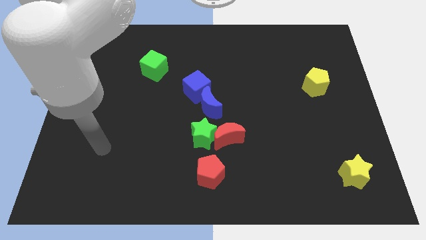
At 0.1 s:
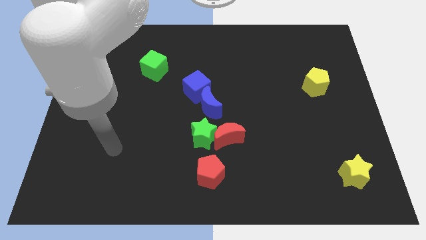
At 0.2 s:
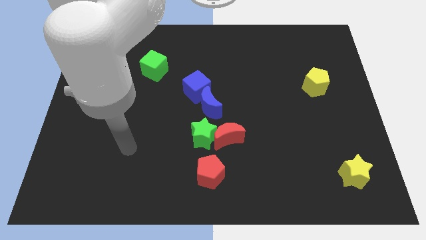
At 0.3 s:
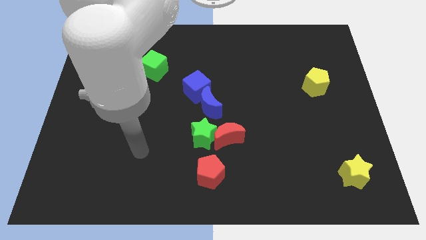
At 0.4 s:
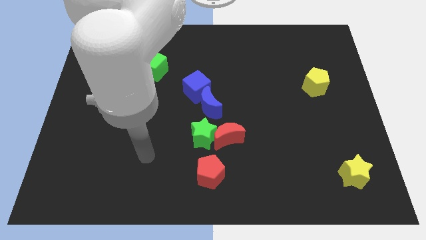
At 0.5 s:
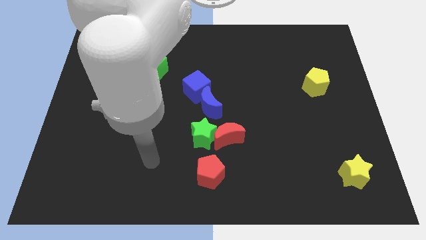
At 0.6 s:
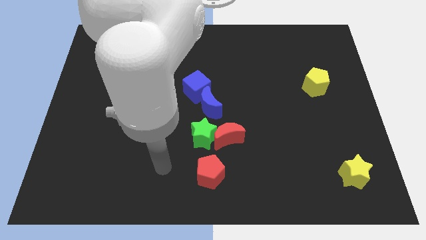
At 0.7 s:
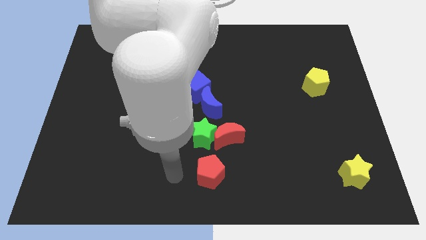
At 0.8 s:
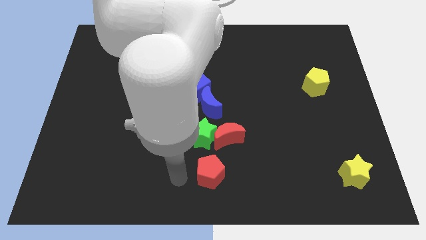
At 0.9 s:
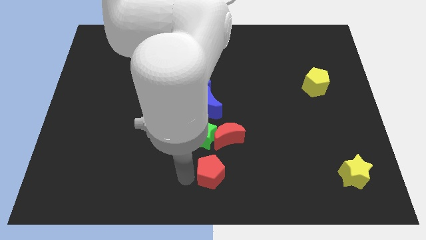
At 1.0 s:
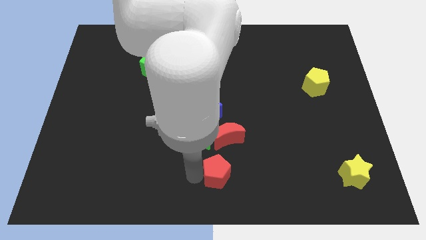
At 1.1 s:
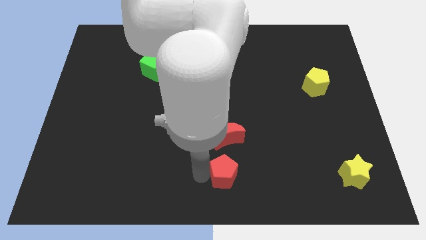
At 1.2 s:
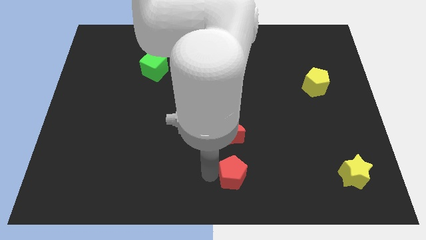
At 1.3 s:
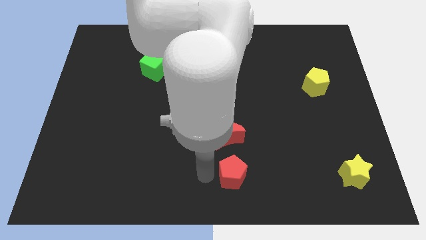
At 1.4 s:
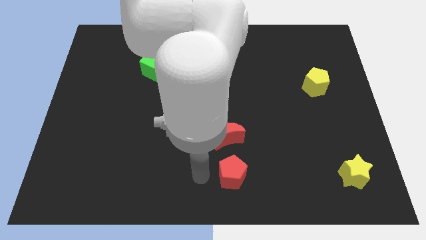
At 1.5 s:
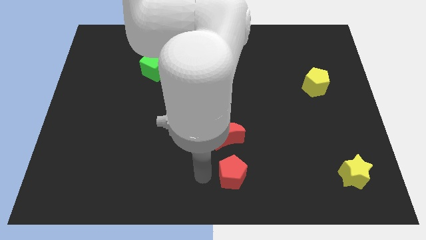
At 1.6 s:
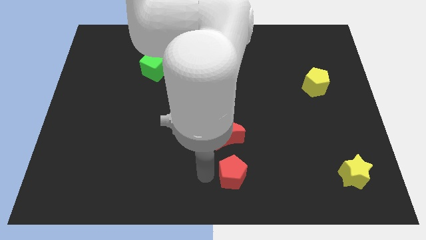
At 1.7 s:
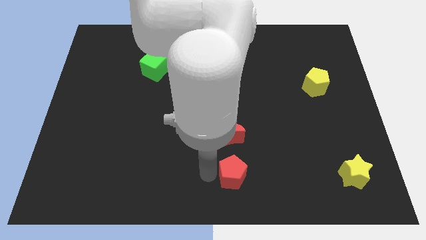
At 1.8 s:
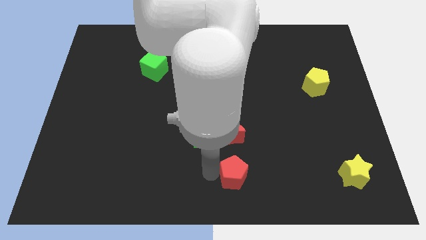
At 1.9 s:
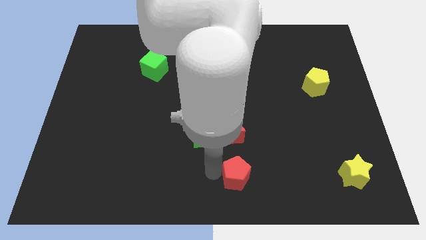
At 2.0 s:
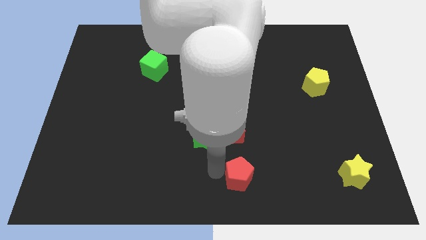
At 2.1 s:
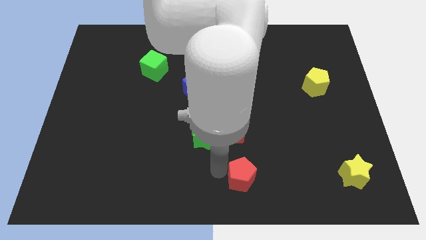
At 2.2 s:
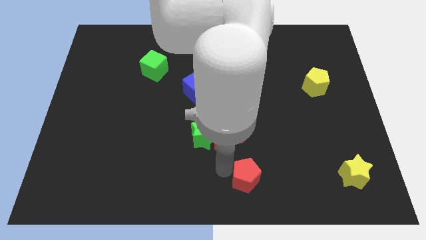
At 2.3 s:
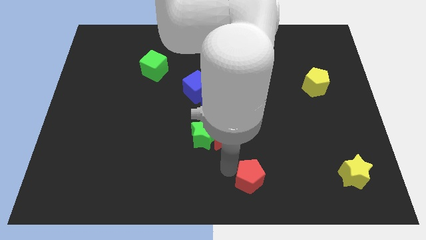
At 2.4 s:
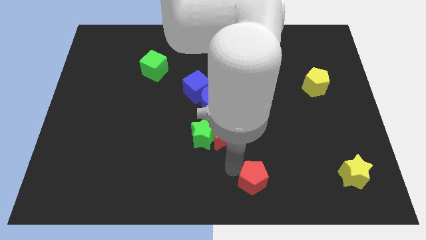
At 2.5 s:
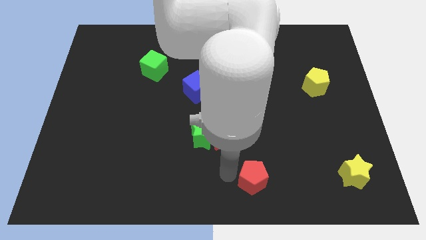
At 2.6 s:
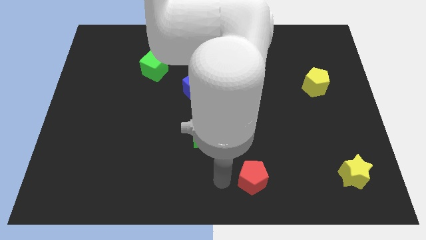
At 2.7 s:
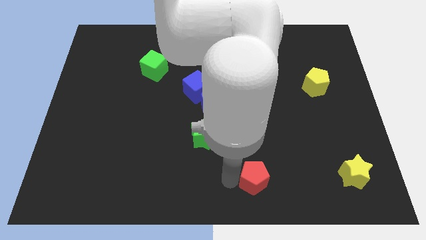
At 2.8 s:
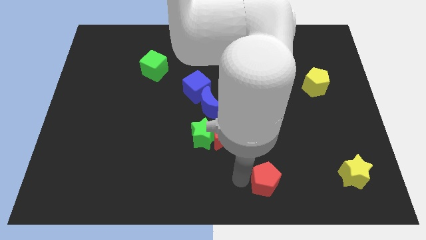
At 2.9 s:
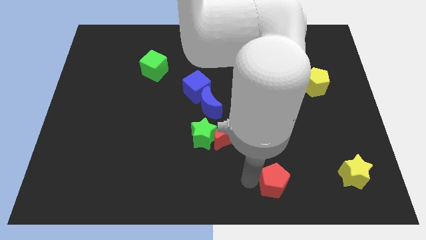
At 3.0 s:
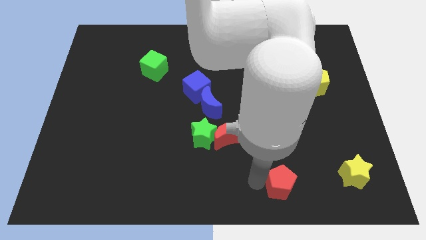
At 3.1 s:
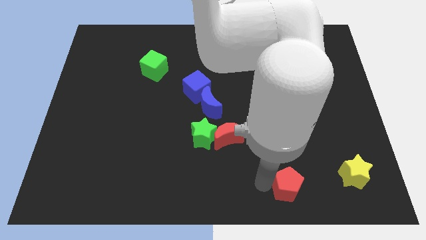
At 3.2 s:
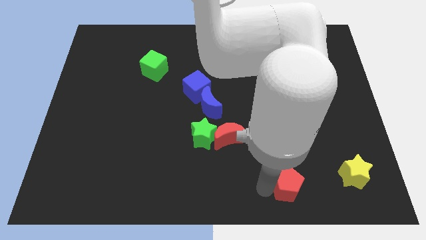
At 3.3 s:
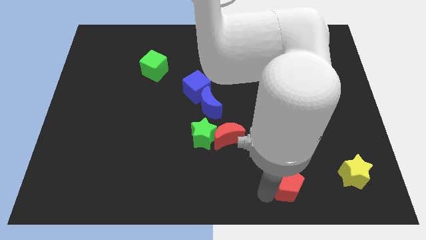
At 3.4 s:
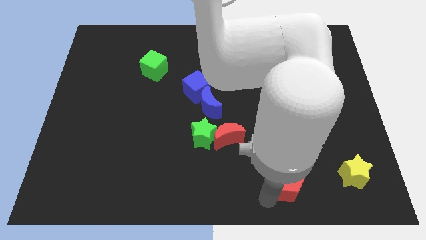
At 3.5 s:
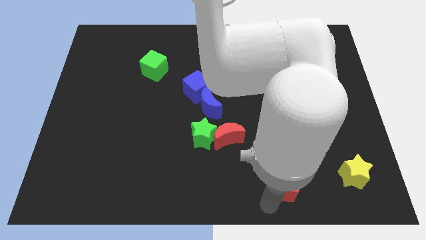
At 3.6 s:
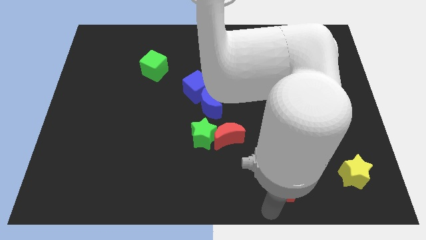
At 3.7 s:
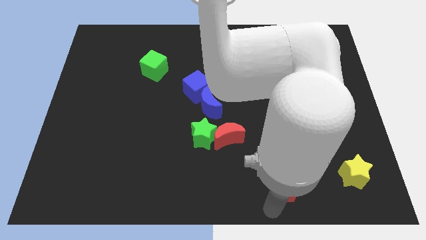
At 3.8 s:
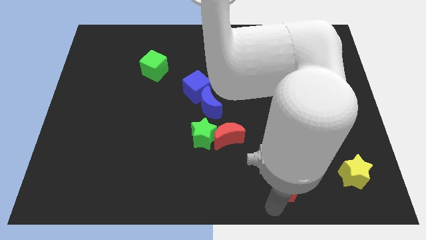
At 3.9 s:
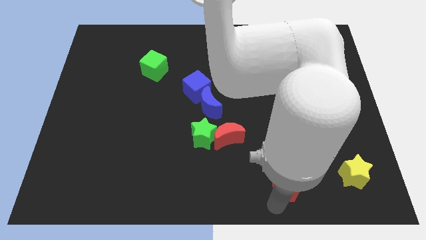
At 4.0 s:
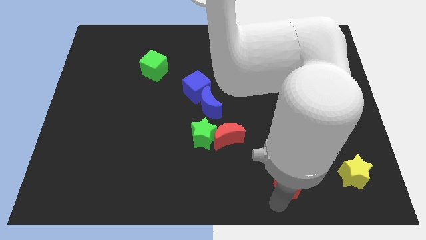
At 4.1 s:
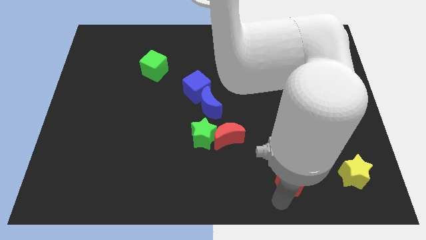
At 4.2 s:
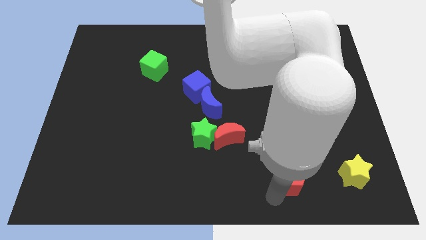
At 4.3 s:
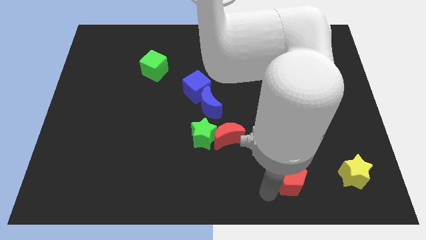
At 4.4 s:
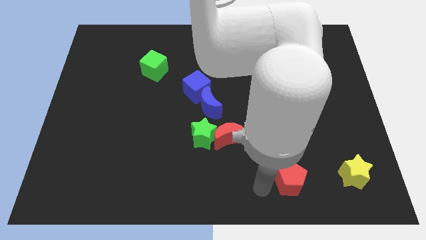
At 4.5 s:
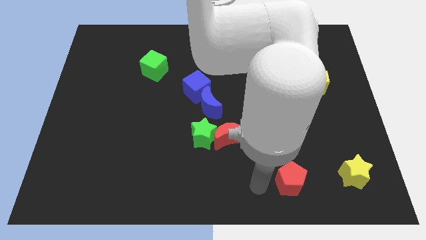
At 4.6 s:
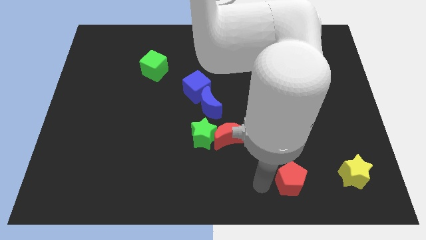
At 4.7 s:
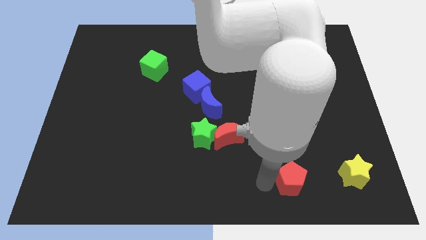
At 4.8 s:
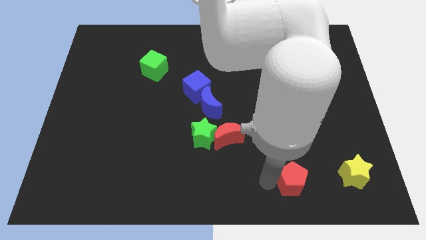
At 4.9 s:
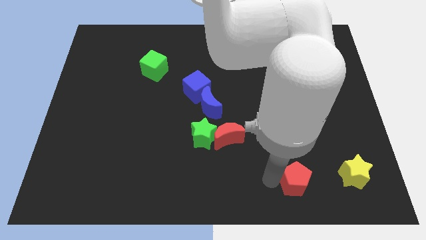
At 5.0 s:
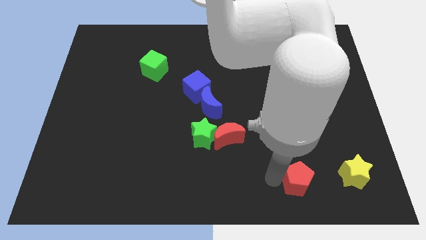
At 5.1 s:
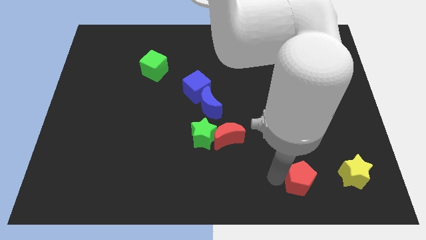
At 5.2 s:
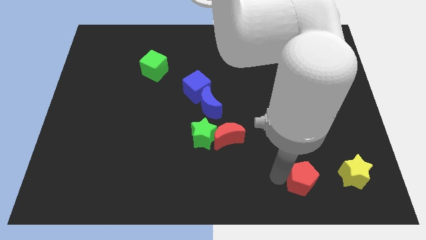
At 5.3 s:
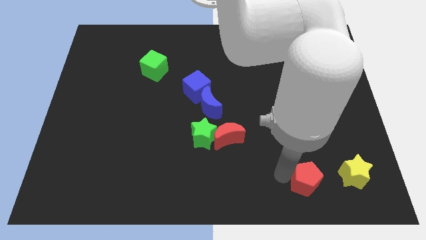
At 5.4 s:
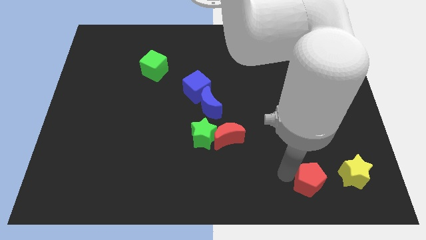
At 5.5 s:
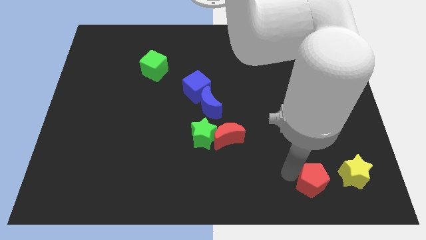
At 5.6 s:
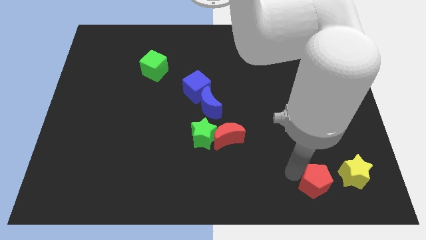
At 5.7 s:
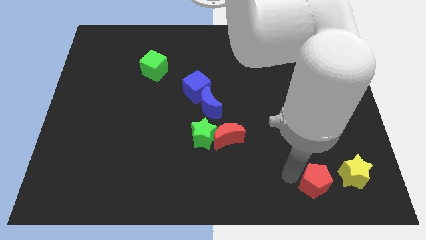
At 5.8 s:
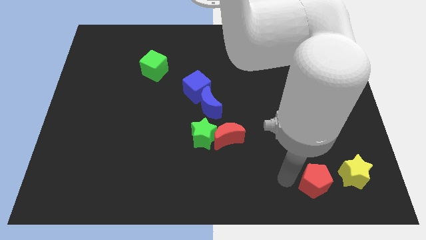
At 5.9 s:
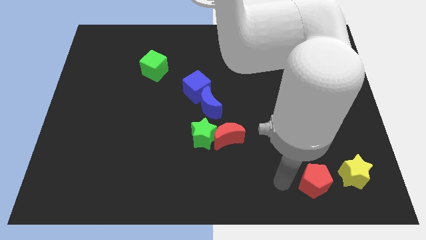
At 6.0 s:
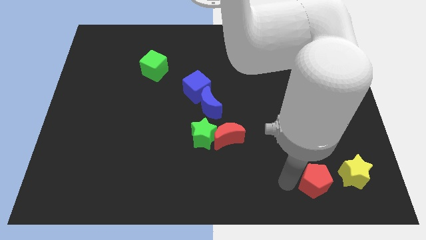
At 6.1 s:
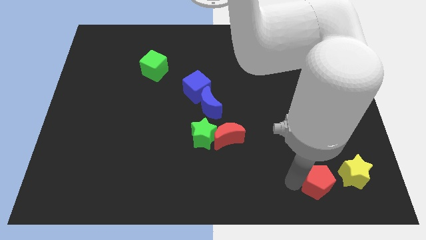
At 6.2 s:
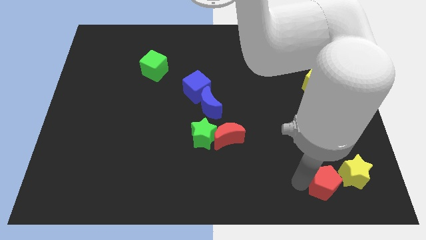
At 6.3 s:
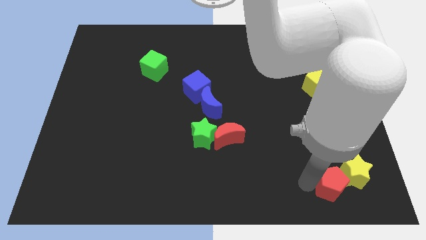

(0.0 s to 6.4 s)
push the red pentagon to the yellow star

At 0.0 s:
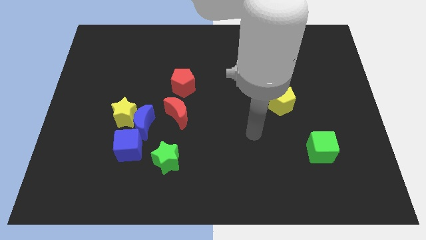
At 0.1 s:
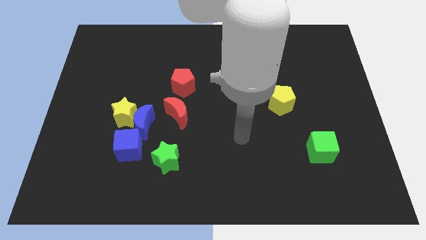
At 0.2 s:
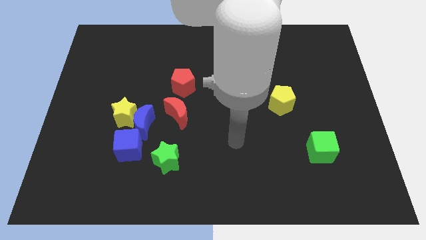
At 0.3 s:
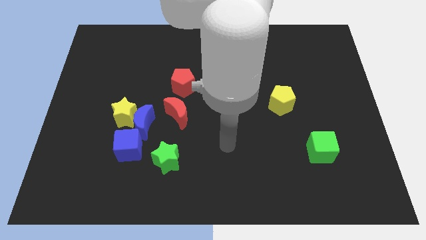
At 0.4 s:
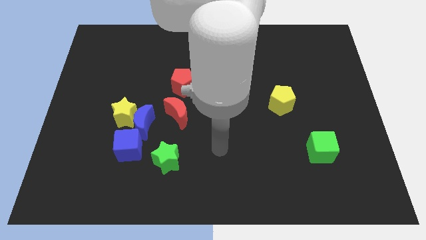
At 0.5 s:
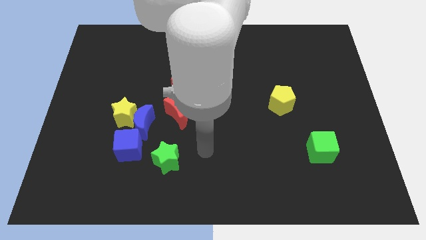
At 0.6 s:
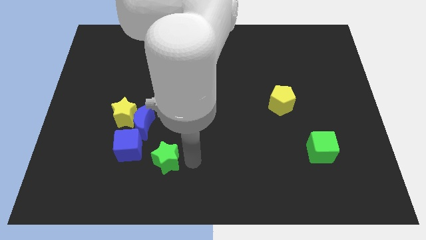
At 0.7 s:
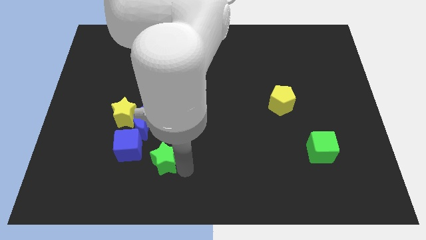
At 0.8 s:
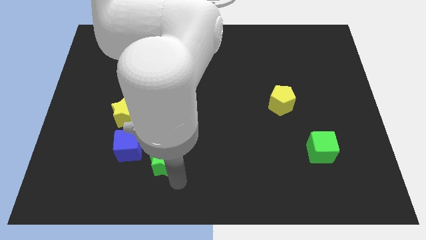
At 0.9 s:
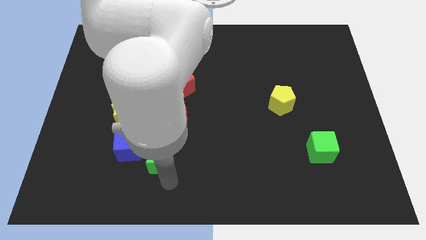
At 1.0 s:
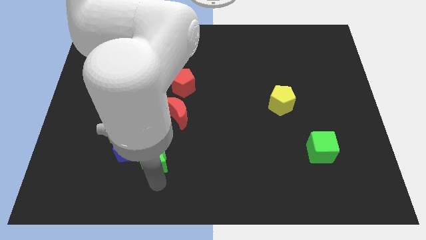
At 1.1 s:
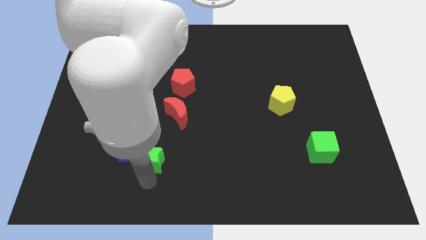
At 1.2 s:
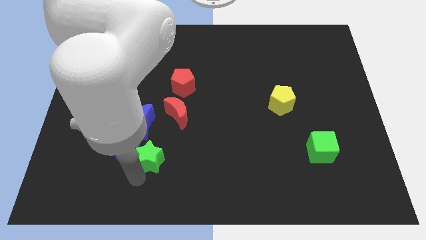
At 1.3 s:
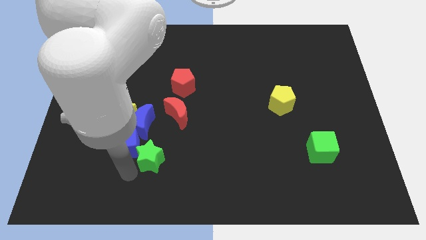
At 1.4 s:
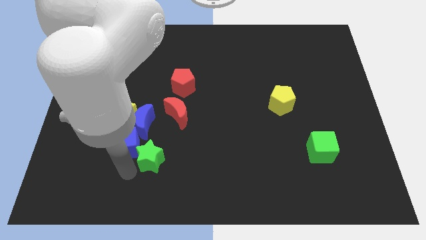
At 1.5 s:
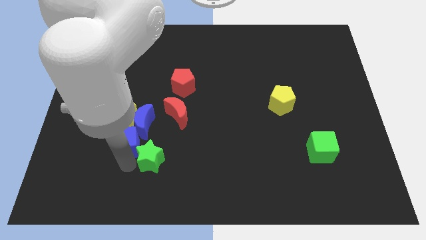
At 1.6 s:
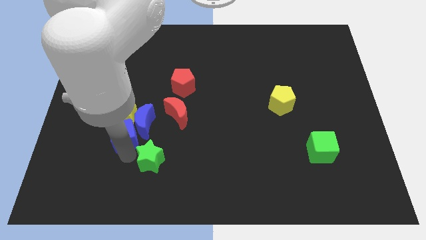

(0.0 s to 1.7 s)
push the blue cube to the yellow star
